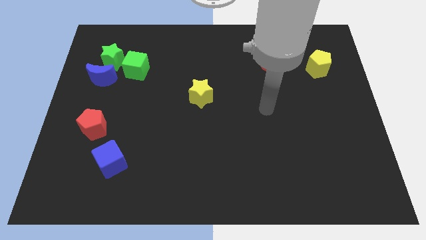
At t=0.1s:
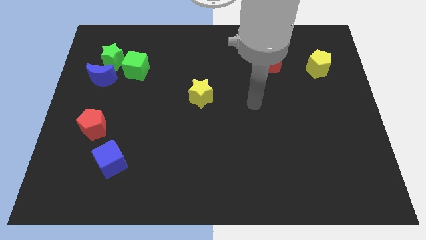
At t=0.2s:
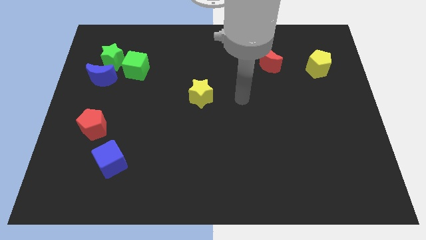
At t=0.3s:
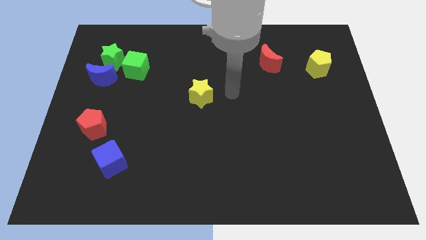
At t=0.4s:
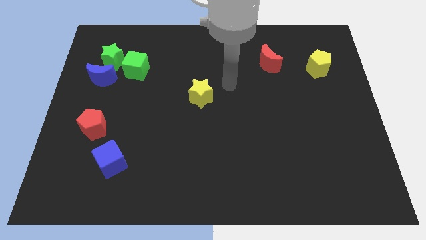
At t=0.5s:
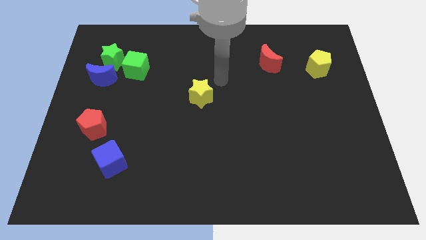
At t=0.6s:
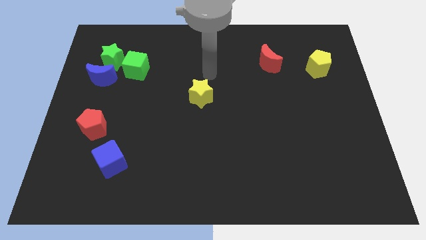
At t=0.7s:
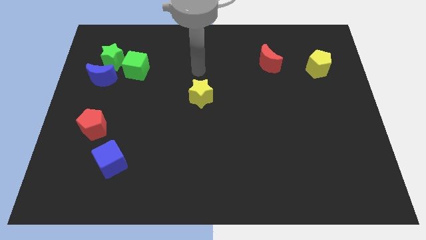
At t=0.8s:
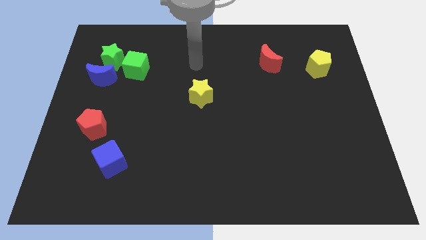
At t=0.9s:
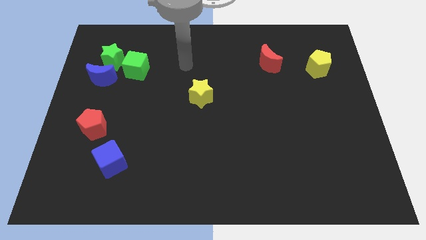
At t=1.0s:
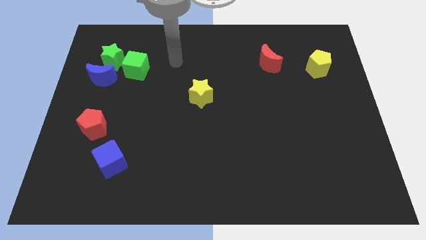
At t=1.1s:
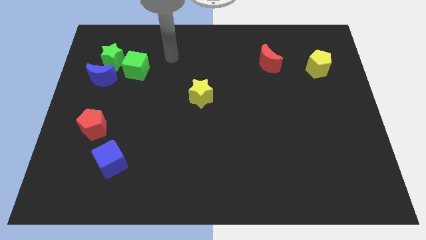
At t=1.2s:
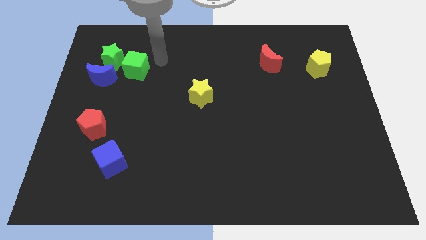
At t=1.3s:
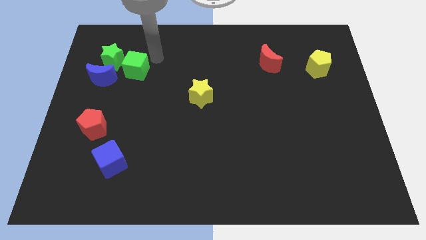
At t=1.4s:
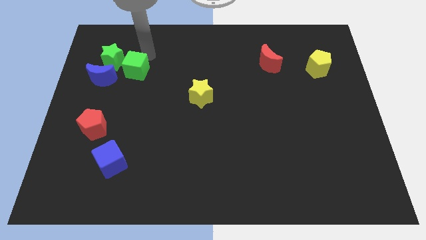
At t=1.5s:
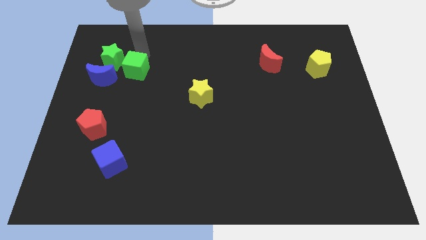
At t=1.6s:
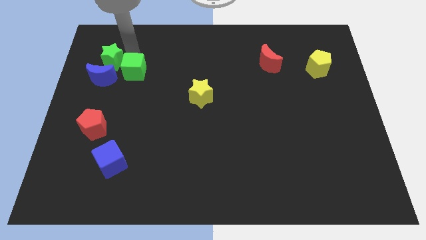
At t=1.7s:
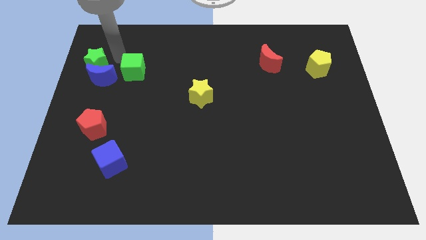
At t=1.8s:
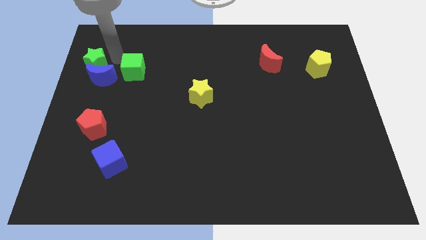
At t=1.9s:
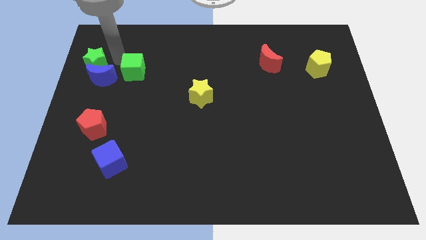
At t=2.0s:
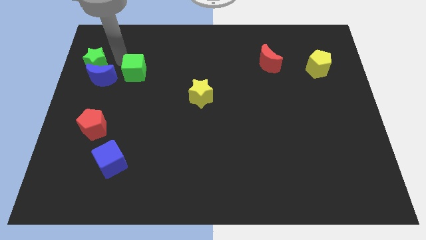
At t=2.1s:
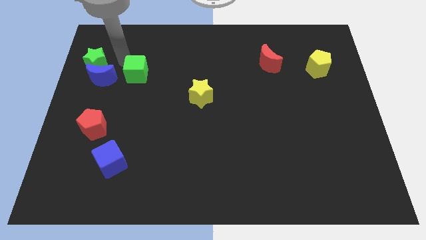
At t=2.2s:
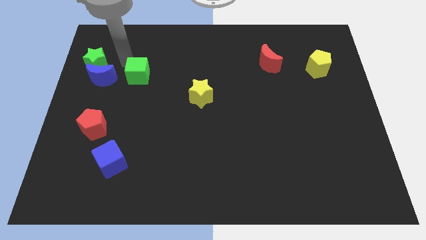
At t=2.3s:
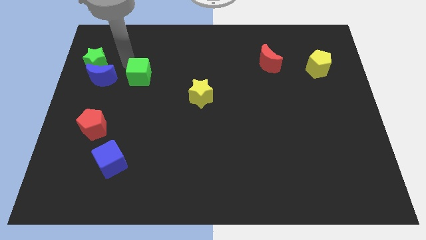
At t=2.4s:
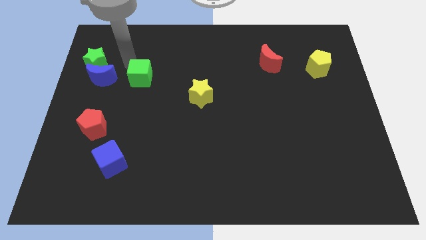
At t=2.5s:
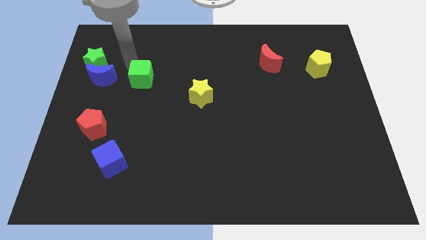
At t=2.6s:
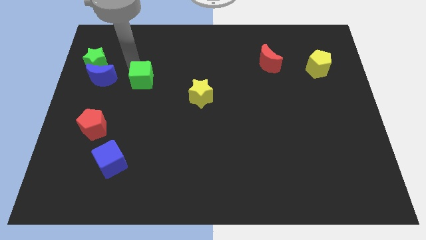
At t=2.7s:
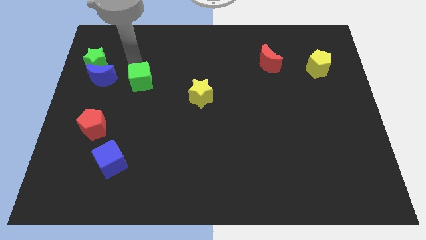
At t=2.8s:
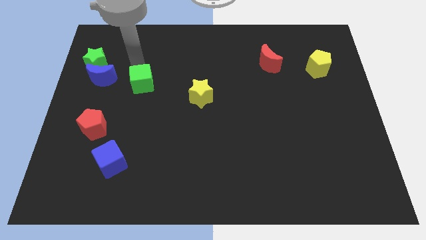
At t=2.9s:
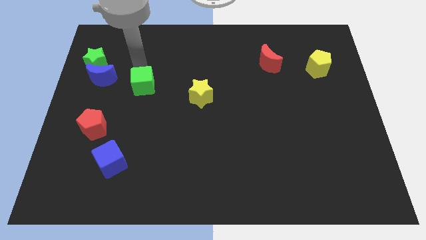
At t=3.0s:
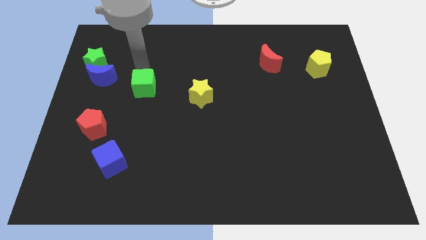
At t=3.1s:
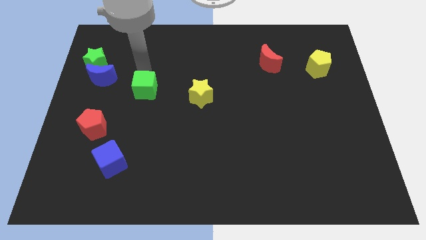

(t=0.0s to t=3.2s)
move the green cube a bit downwards and to the right diagonally

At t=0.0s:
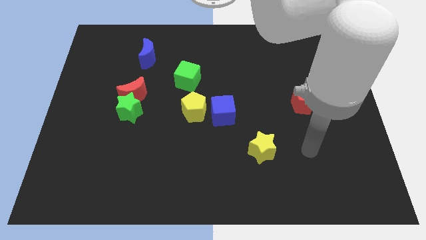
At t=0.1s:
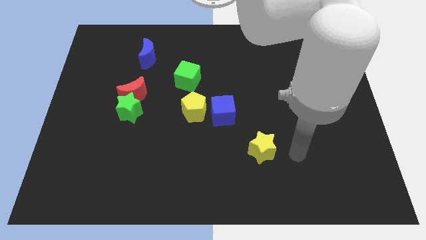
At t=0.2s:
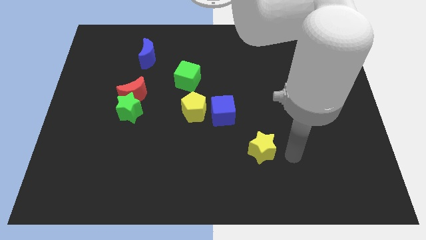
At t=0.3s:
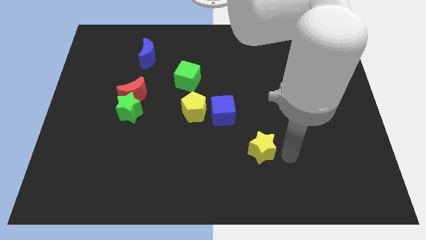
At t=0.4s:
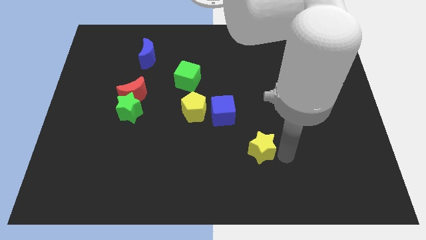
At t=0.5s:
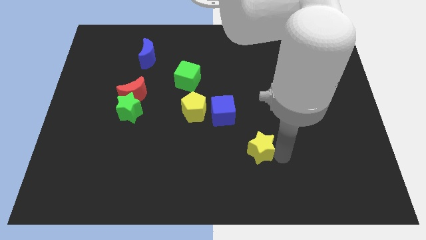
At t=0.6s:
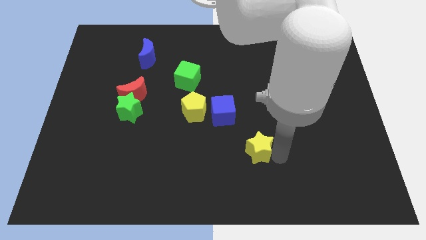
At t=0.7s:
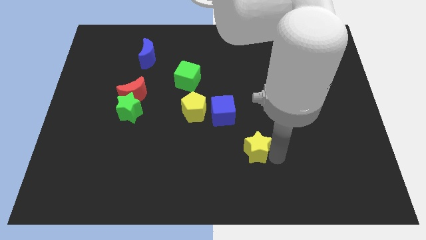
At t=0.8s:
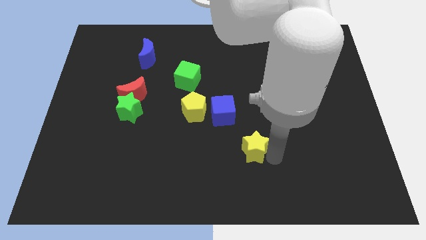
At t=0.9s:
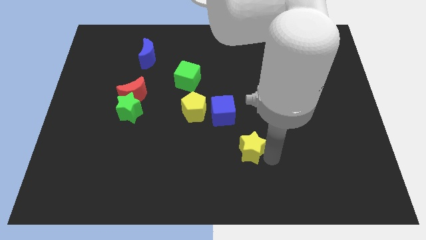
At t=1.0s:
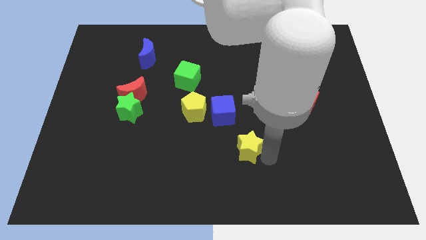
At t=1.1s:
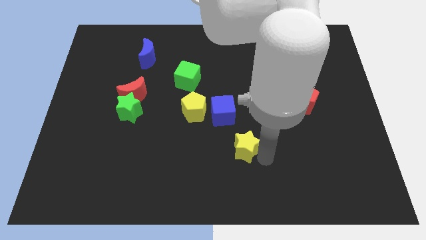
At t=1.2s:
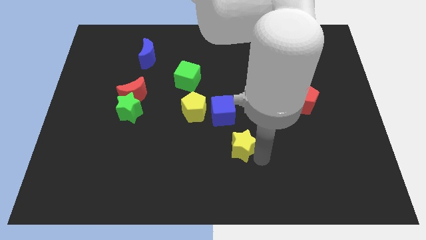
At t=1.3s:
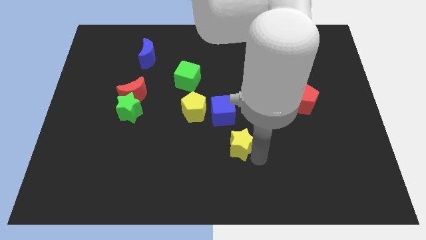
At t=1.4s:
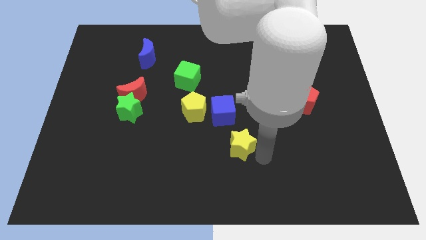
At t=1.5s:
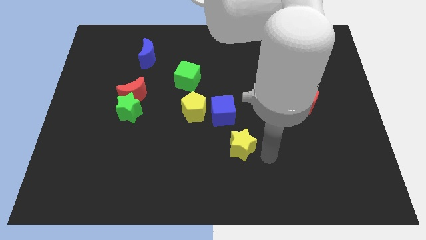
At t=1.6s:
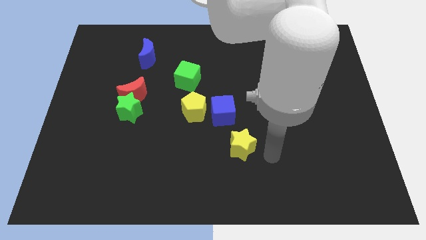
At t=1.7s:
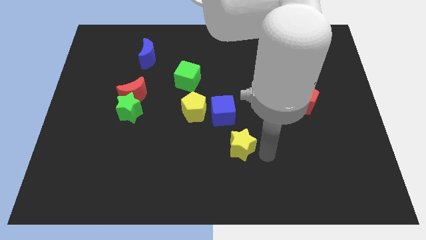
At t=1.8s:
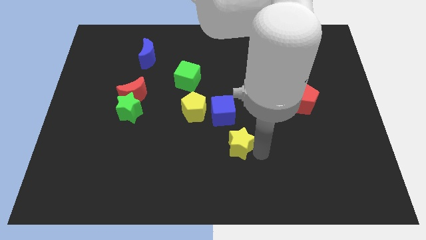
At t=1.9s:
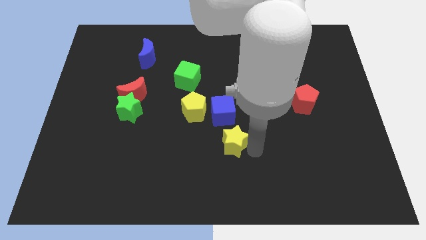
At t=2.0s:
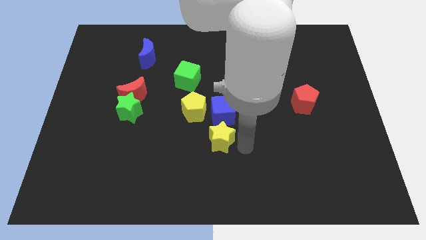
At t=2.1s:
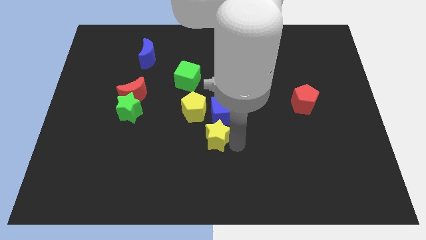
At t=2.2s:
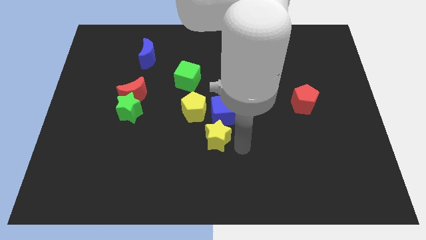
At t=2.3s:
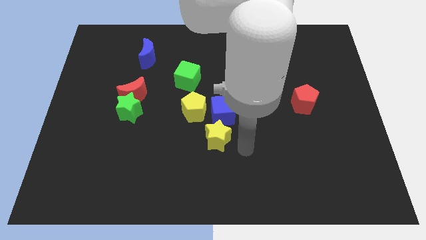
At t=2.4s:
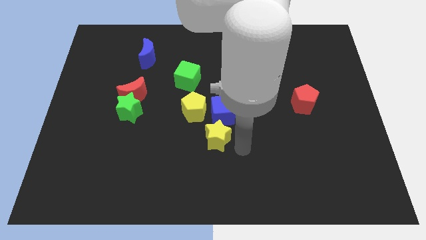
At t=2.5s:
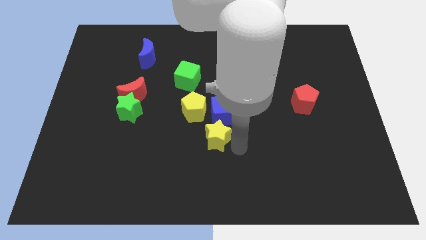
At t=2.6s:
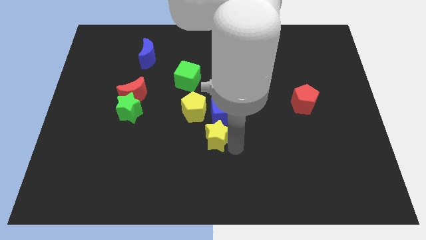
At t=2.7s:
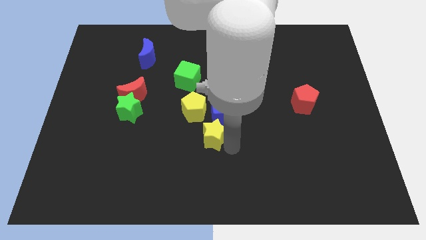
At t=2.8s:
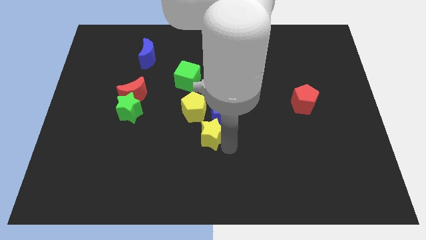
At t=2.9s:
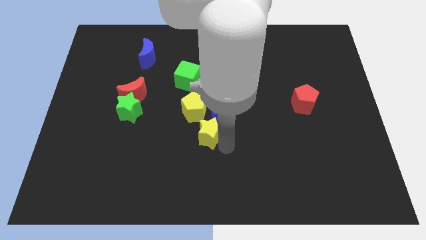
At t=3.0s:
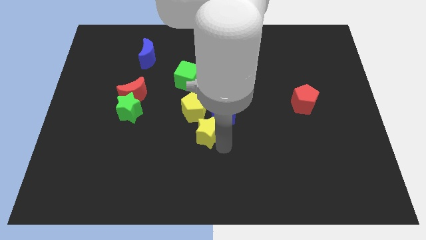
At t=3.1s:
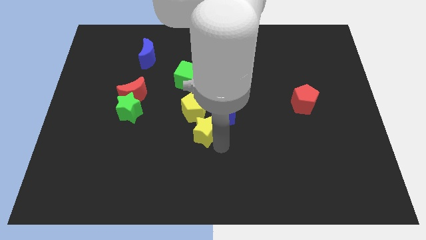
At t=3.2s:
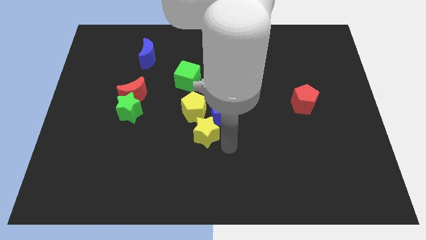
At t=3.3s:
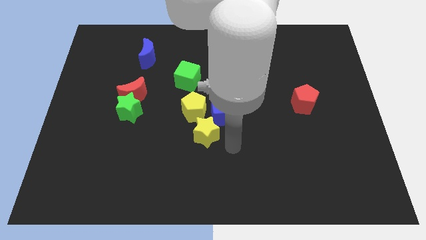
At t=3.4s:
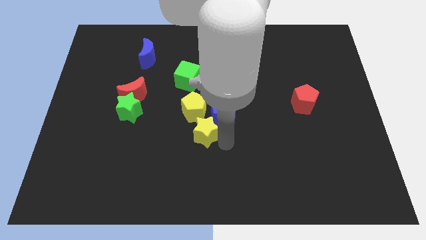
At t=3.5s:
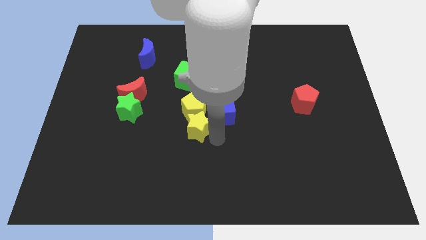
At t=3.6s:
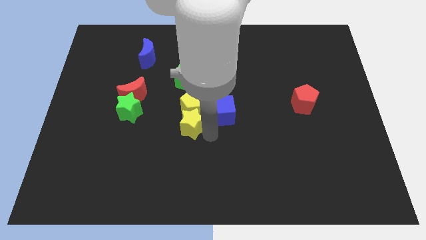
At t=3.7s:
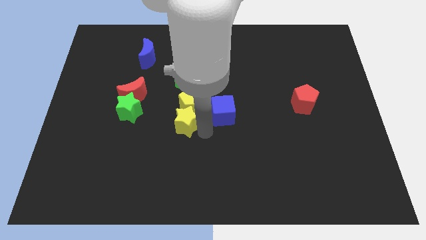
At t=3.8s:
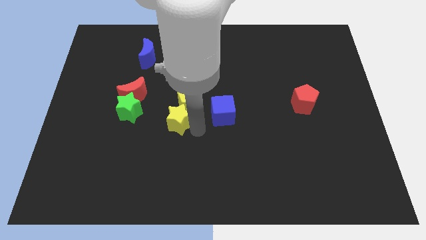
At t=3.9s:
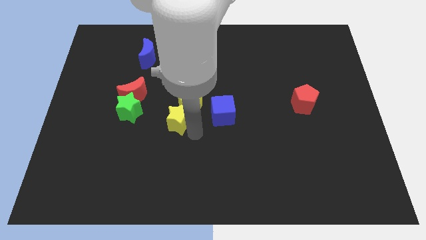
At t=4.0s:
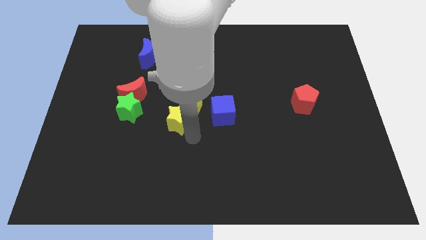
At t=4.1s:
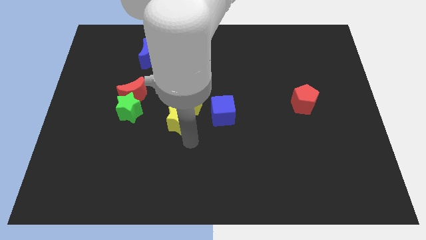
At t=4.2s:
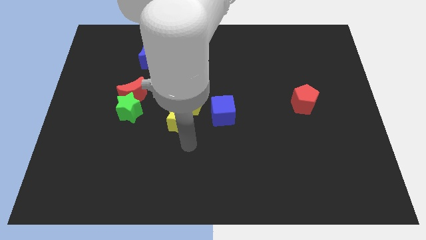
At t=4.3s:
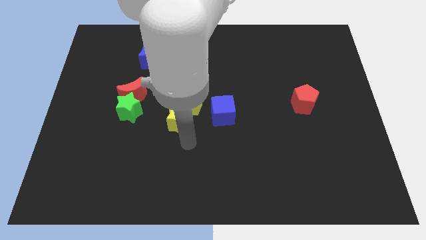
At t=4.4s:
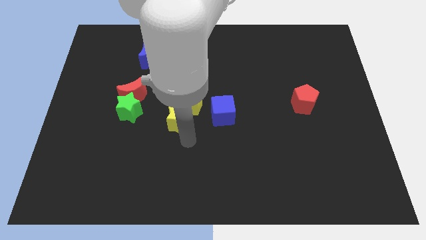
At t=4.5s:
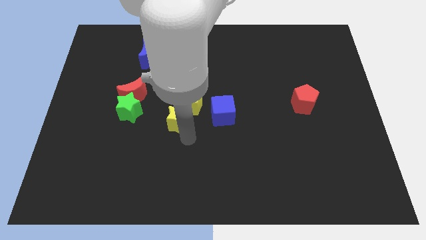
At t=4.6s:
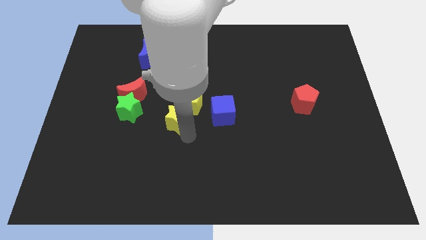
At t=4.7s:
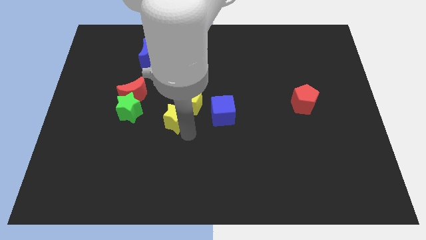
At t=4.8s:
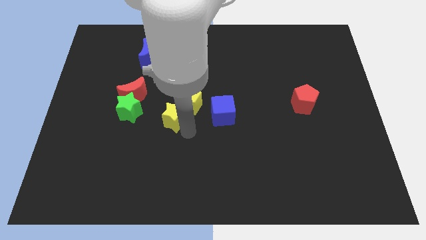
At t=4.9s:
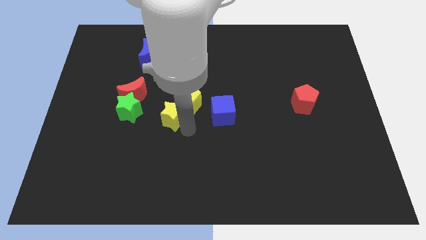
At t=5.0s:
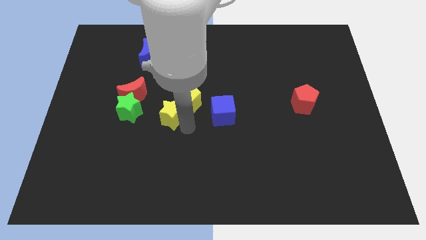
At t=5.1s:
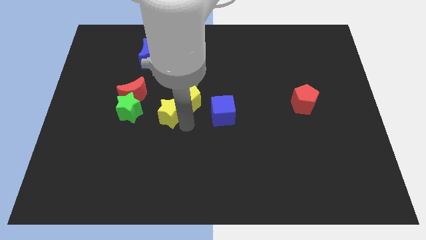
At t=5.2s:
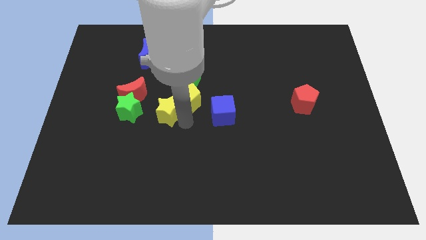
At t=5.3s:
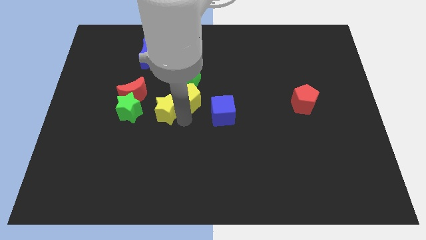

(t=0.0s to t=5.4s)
push the yellow star up and left diagonally
